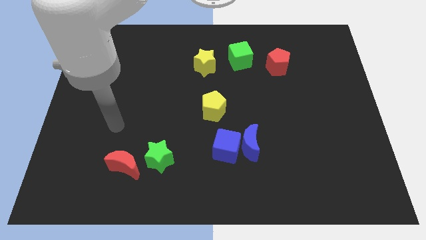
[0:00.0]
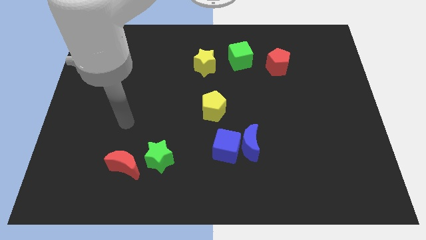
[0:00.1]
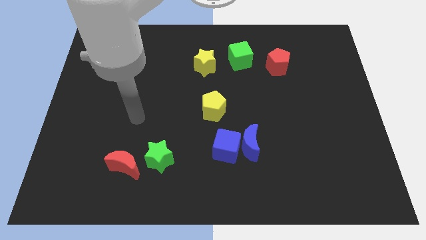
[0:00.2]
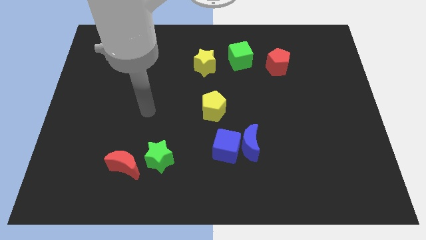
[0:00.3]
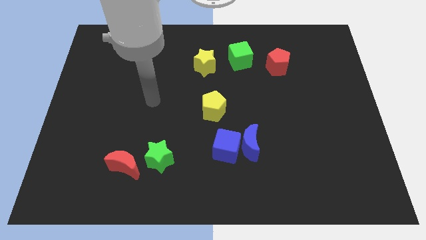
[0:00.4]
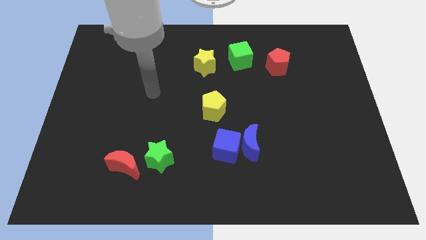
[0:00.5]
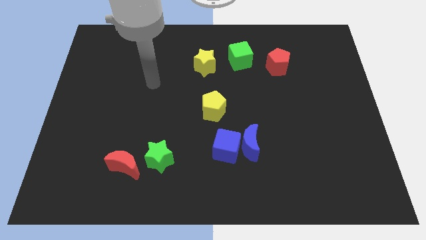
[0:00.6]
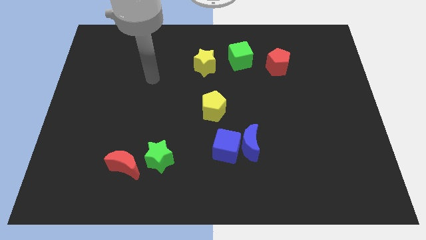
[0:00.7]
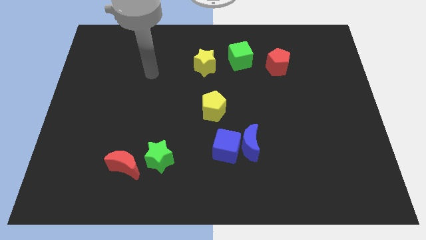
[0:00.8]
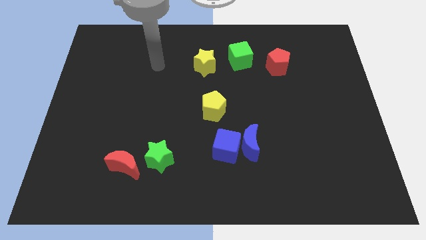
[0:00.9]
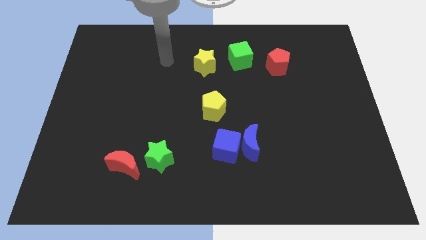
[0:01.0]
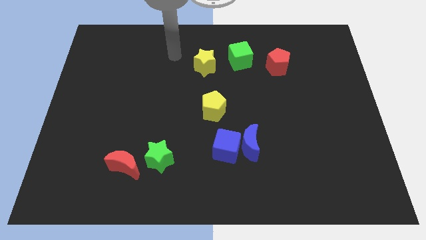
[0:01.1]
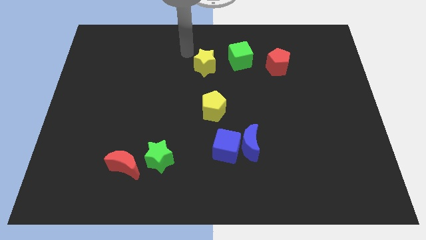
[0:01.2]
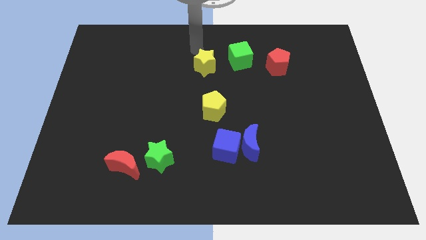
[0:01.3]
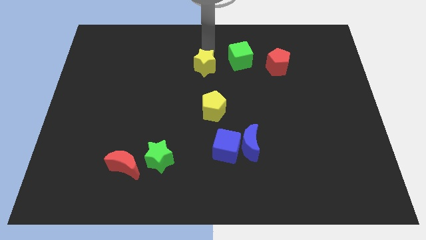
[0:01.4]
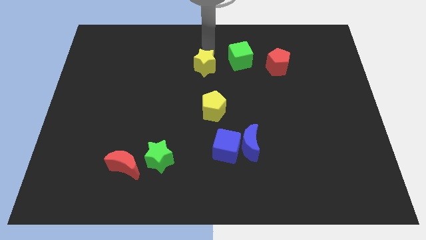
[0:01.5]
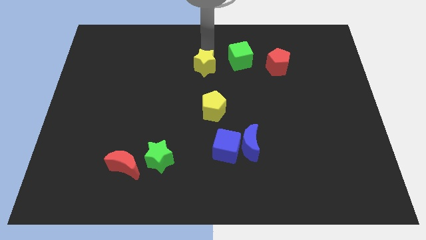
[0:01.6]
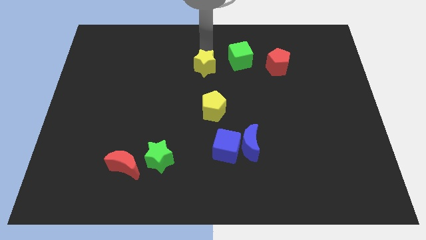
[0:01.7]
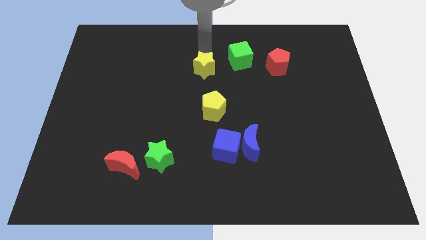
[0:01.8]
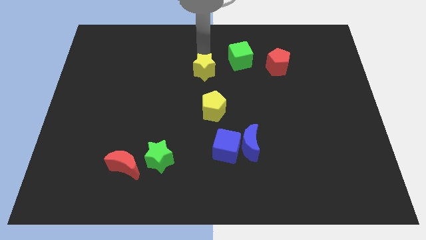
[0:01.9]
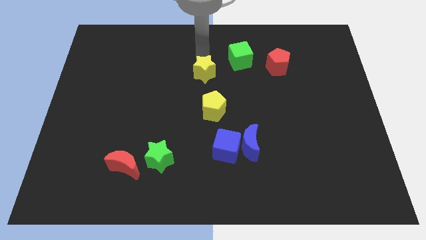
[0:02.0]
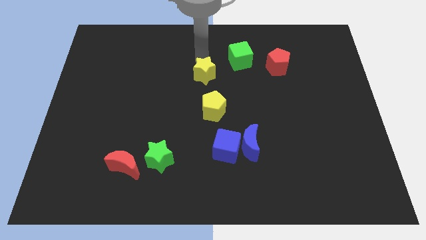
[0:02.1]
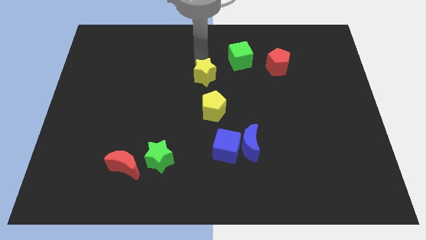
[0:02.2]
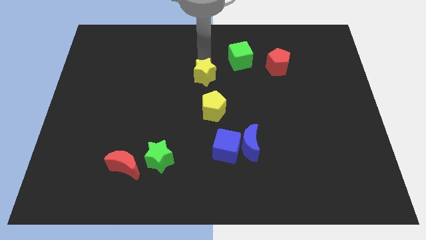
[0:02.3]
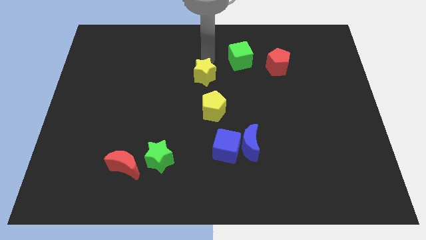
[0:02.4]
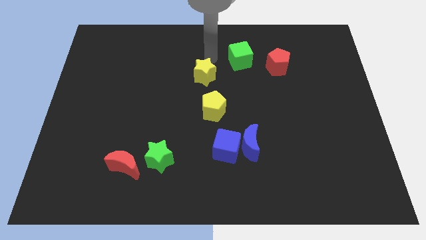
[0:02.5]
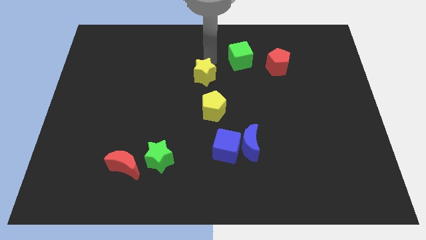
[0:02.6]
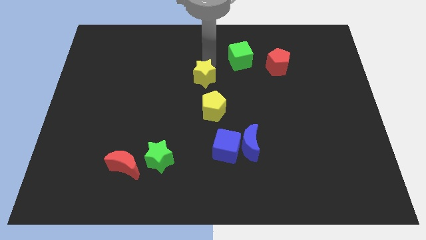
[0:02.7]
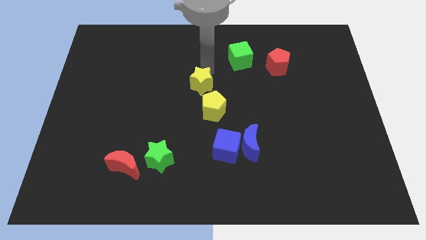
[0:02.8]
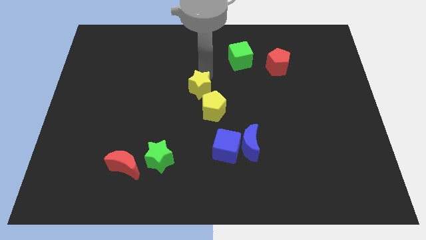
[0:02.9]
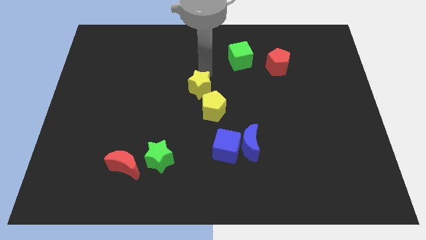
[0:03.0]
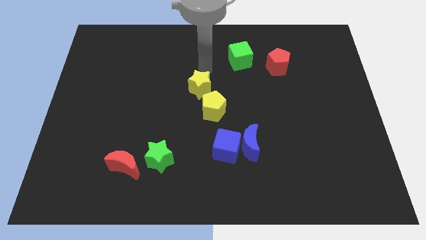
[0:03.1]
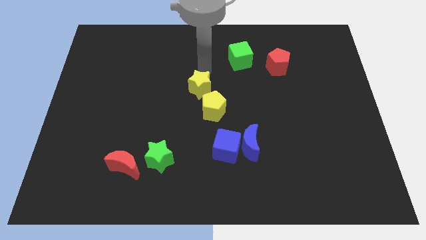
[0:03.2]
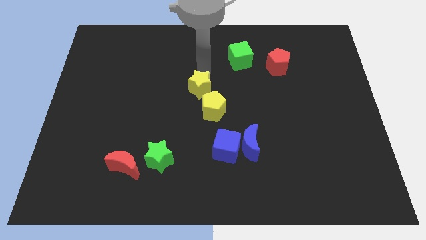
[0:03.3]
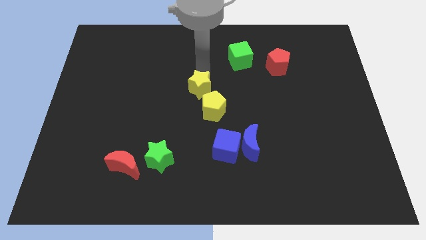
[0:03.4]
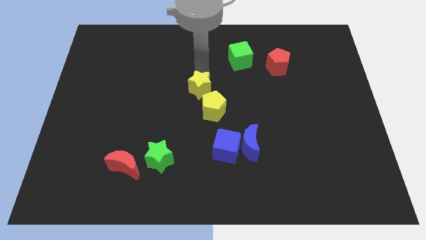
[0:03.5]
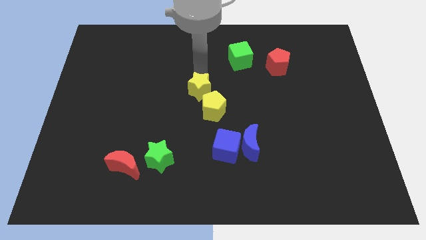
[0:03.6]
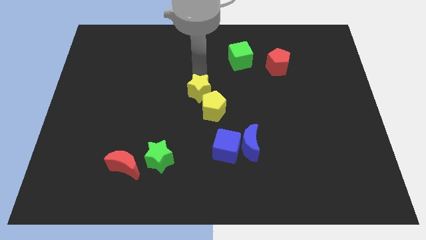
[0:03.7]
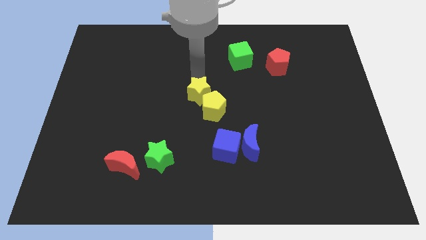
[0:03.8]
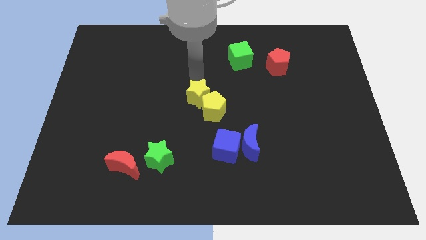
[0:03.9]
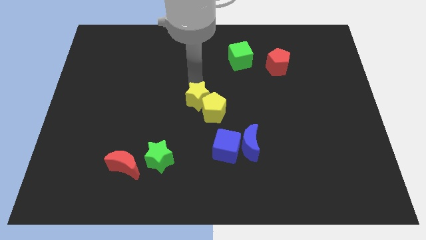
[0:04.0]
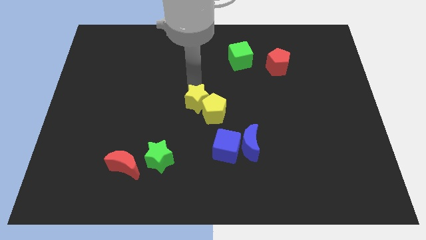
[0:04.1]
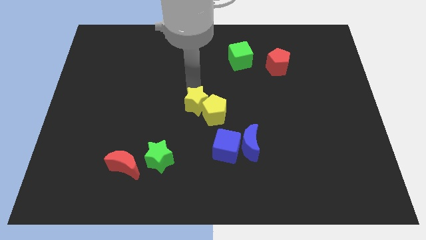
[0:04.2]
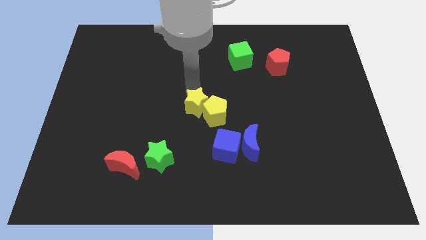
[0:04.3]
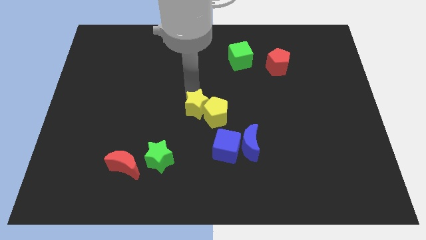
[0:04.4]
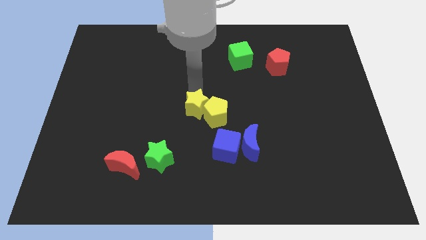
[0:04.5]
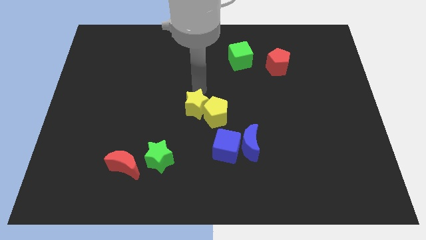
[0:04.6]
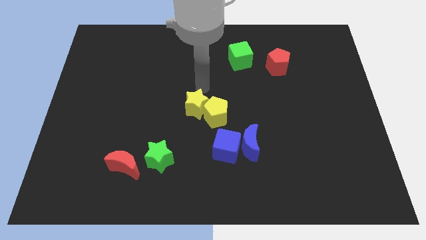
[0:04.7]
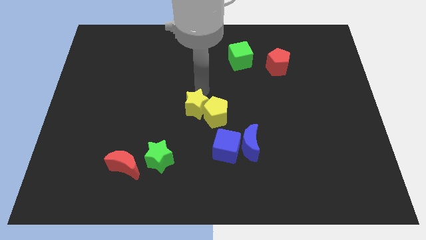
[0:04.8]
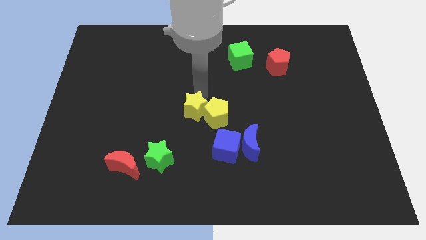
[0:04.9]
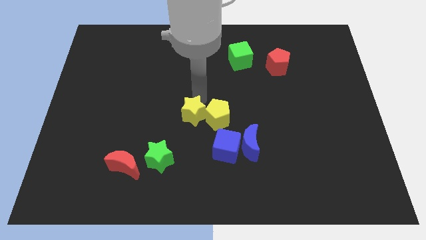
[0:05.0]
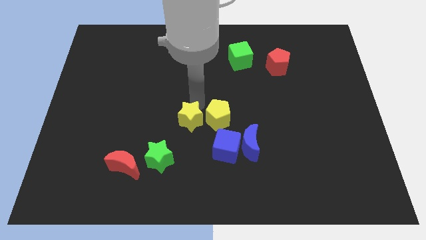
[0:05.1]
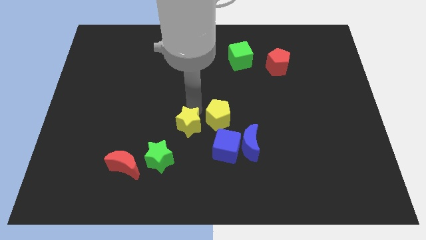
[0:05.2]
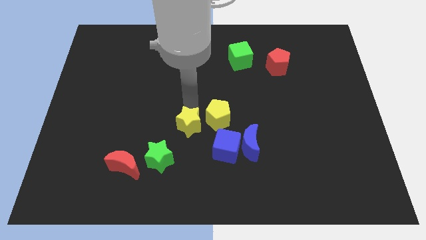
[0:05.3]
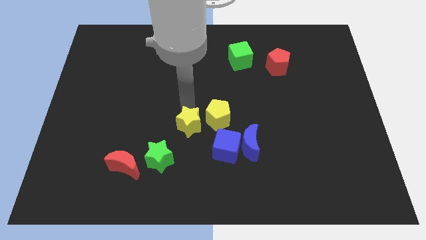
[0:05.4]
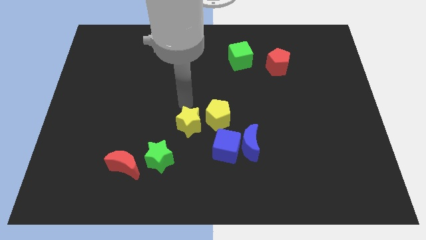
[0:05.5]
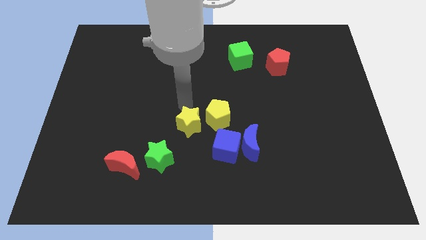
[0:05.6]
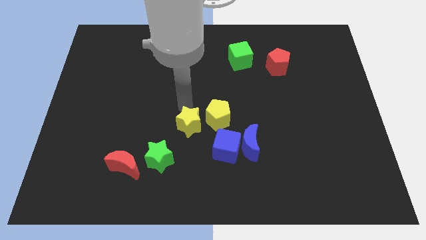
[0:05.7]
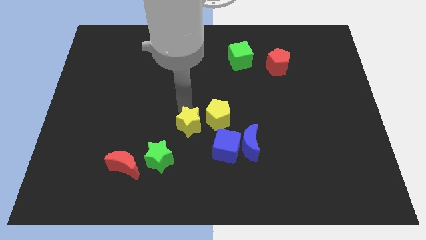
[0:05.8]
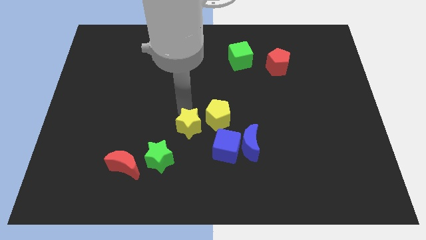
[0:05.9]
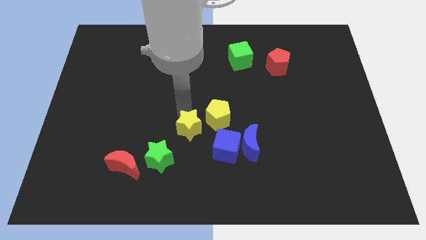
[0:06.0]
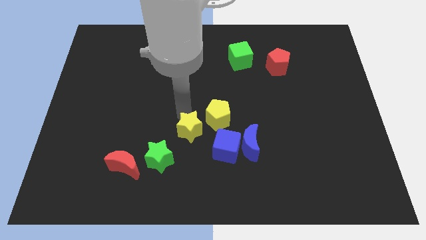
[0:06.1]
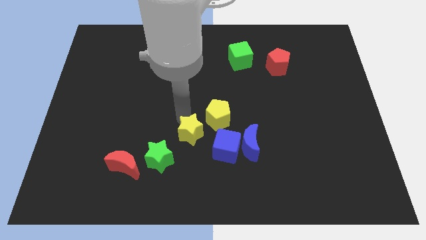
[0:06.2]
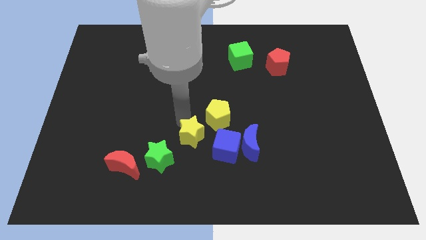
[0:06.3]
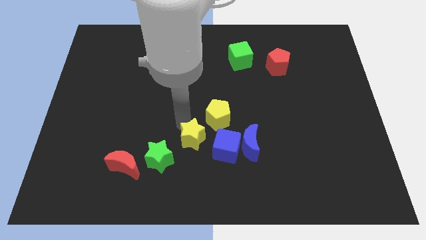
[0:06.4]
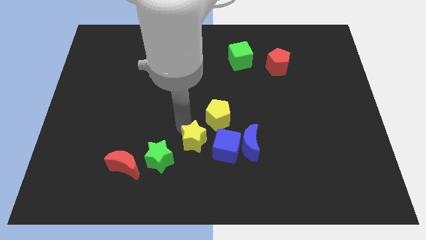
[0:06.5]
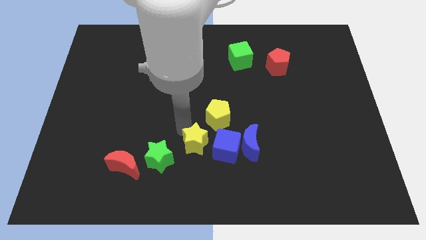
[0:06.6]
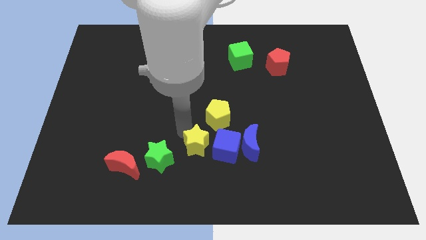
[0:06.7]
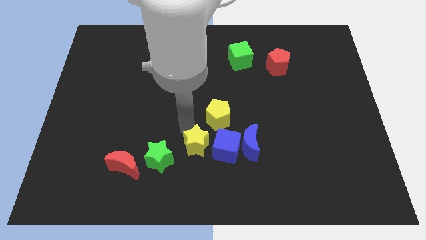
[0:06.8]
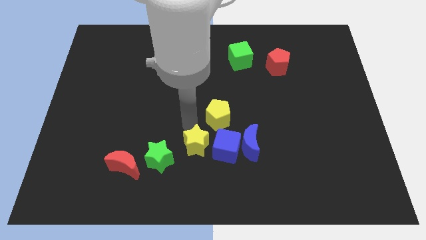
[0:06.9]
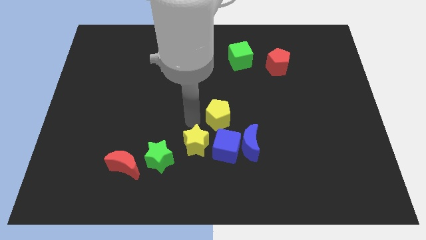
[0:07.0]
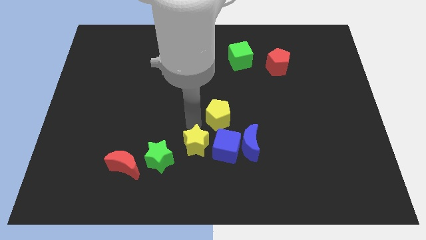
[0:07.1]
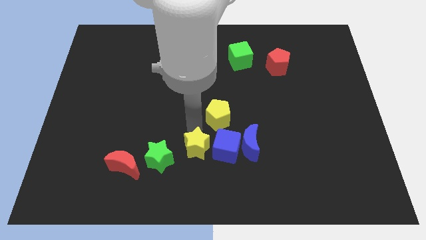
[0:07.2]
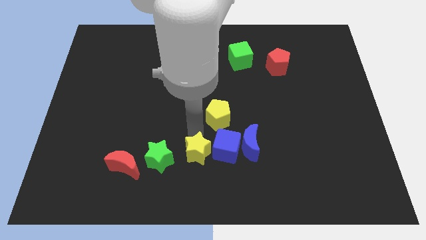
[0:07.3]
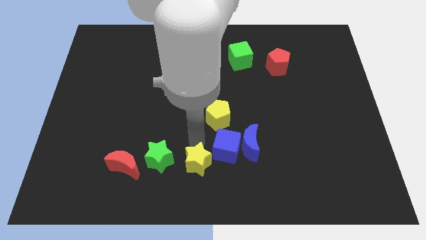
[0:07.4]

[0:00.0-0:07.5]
slide the yellow star to the bottom
